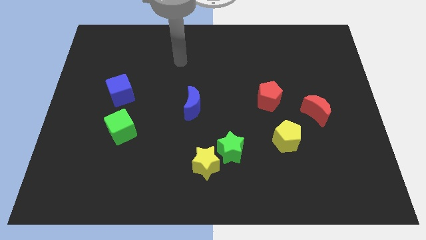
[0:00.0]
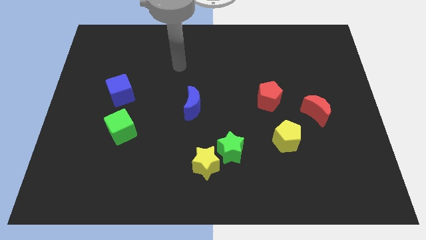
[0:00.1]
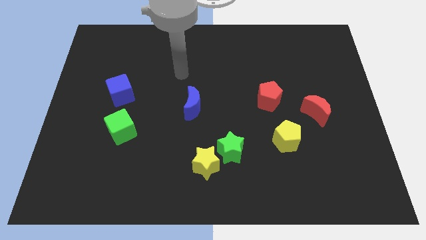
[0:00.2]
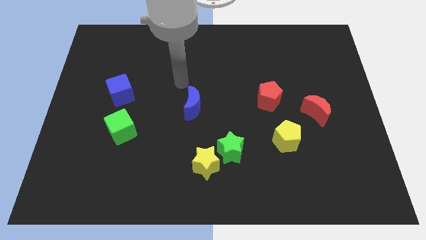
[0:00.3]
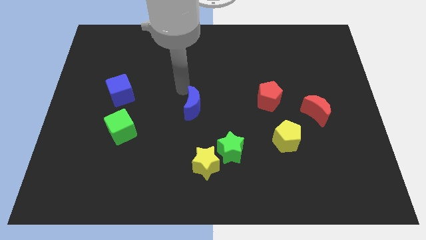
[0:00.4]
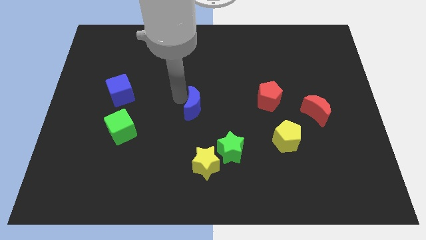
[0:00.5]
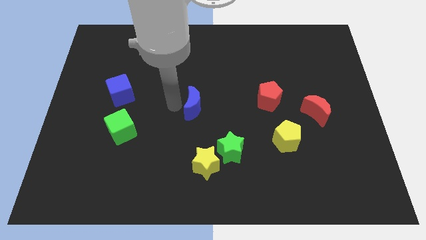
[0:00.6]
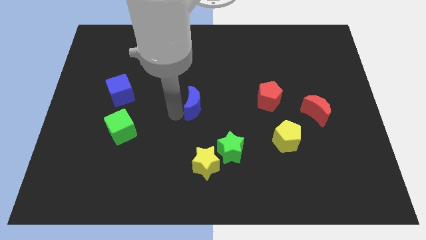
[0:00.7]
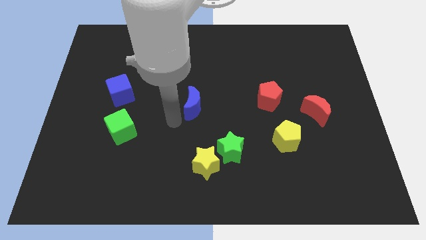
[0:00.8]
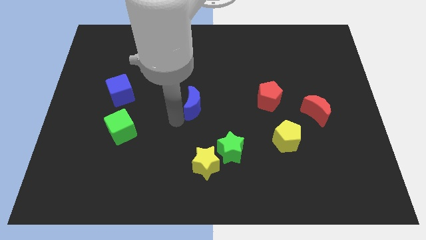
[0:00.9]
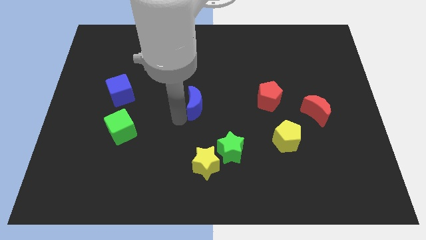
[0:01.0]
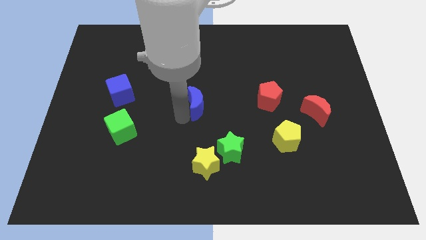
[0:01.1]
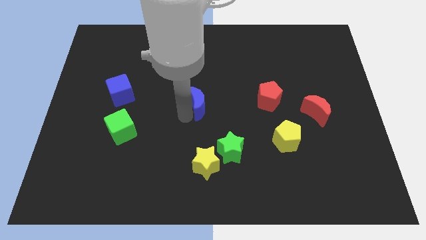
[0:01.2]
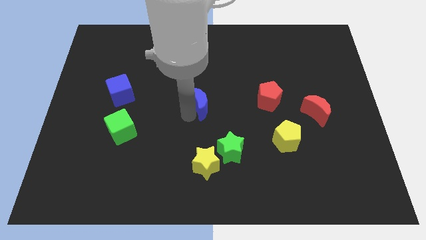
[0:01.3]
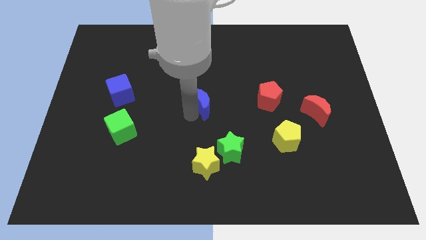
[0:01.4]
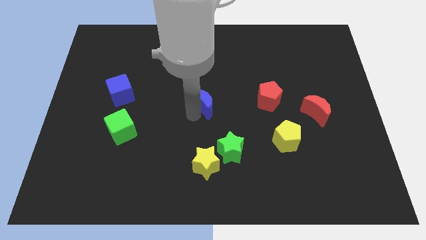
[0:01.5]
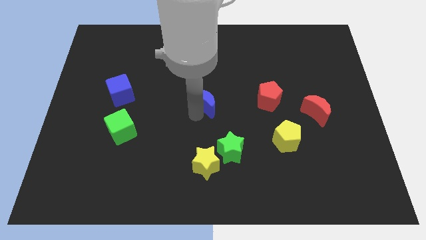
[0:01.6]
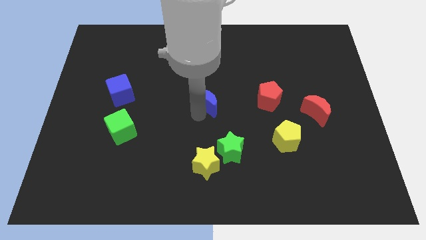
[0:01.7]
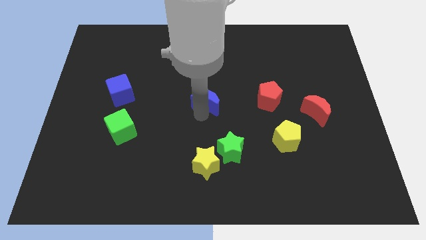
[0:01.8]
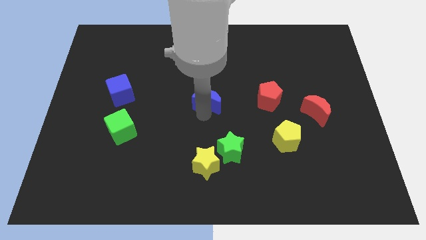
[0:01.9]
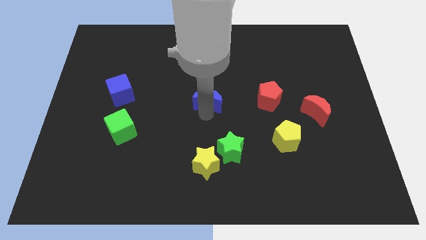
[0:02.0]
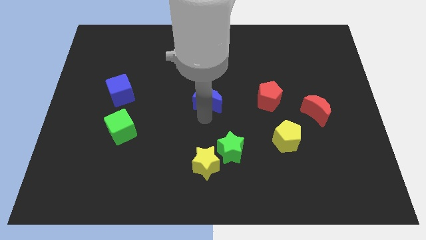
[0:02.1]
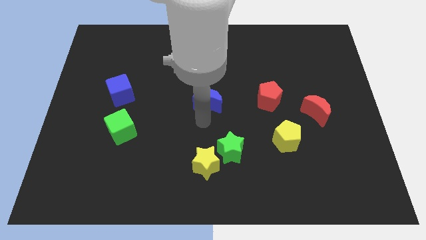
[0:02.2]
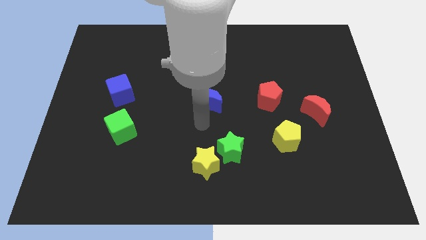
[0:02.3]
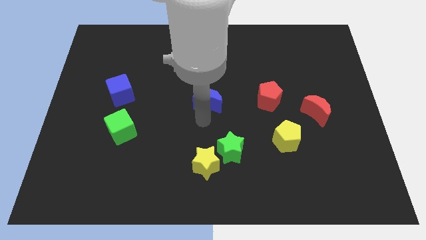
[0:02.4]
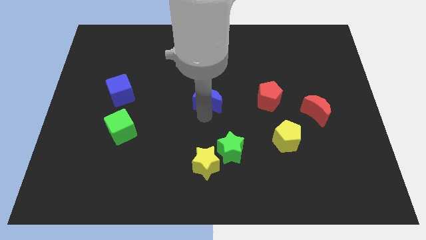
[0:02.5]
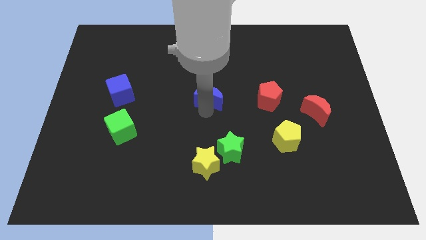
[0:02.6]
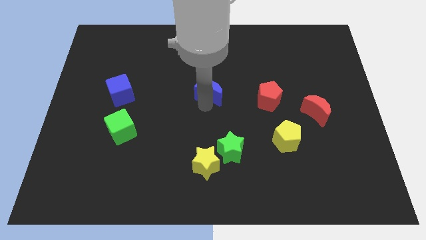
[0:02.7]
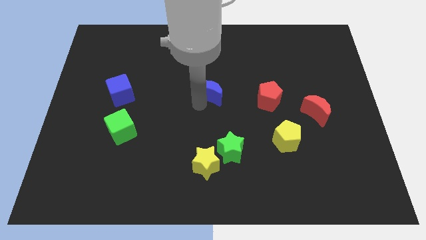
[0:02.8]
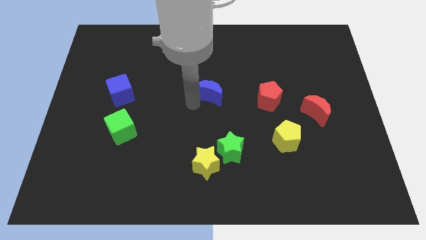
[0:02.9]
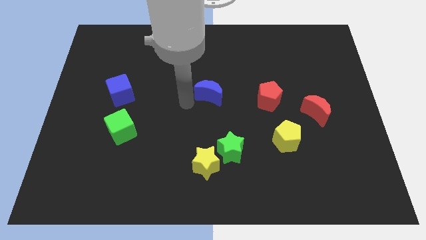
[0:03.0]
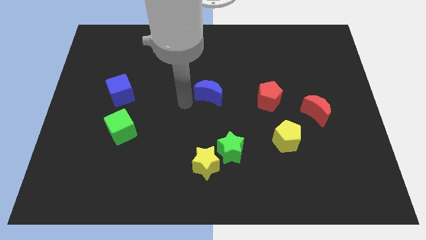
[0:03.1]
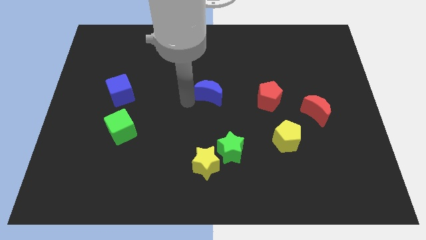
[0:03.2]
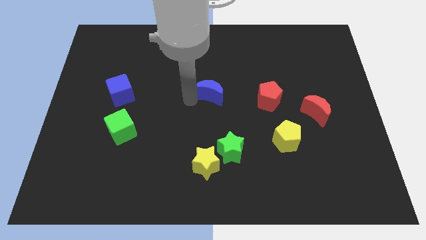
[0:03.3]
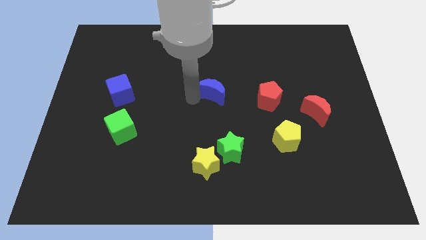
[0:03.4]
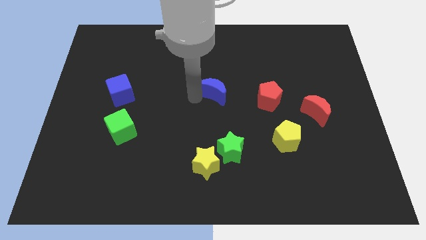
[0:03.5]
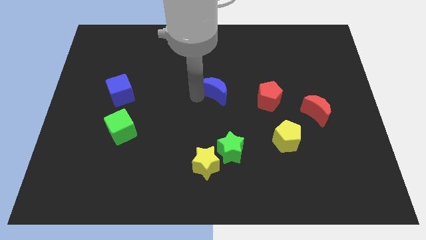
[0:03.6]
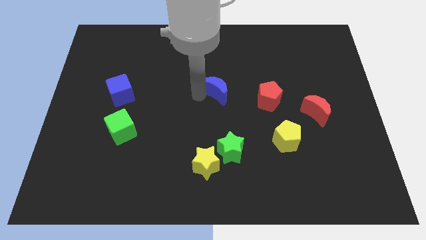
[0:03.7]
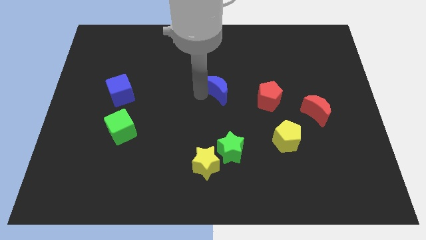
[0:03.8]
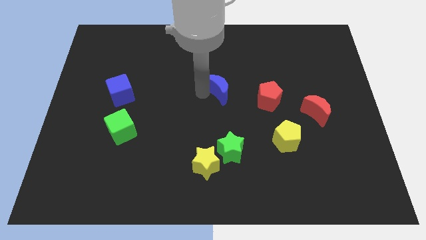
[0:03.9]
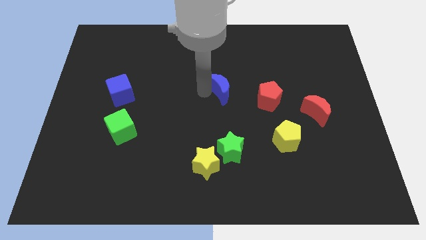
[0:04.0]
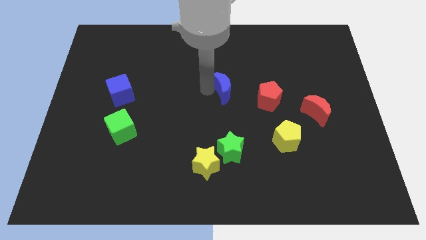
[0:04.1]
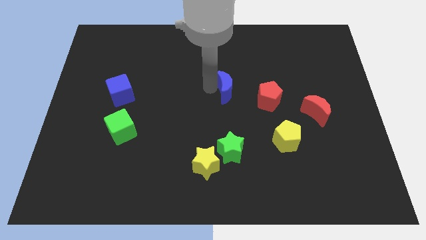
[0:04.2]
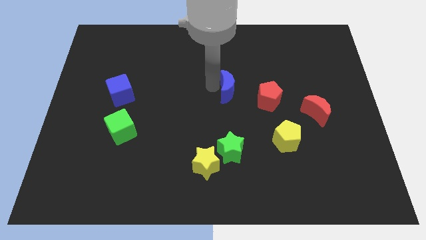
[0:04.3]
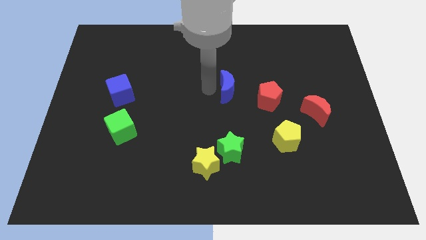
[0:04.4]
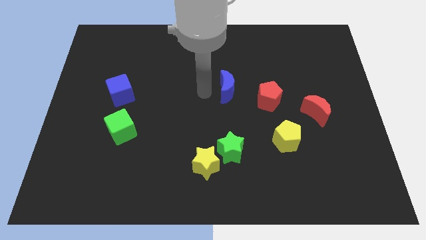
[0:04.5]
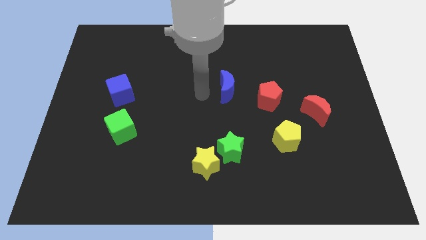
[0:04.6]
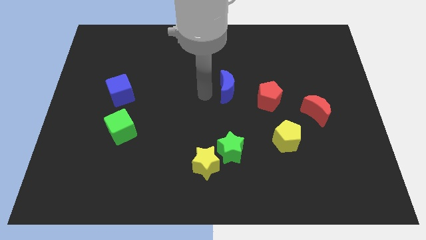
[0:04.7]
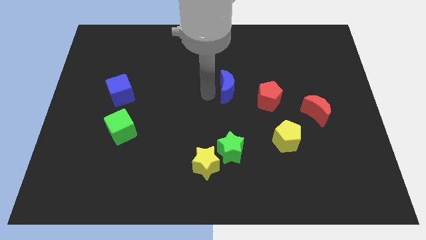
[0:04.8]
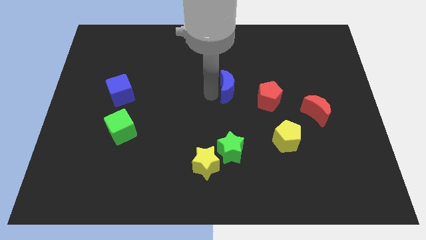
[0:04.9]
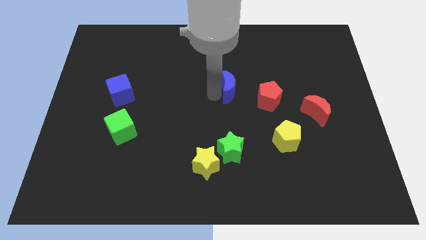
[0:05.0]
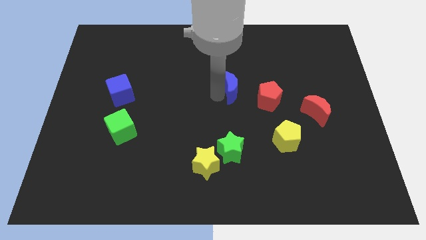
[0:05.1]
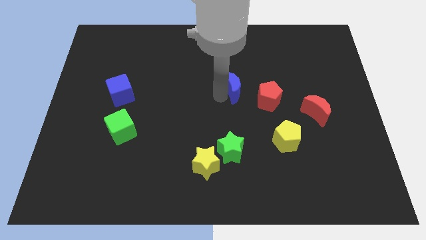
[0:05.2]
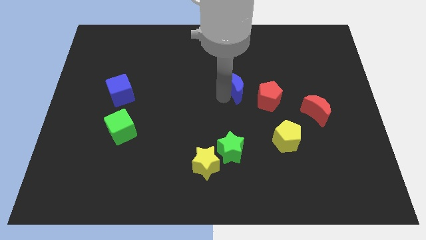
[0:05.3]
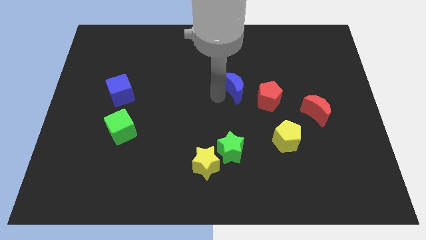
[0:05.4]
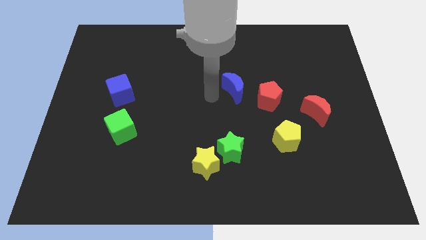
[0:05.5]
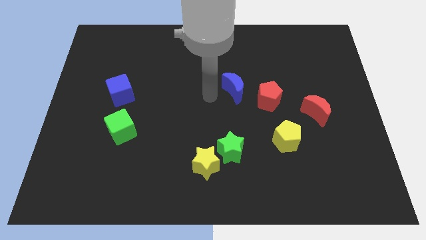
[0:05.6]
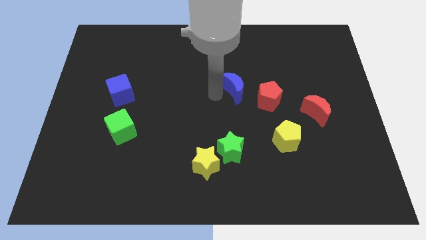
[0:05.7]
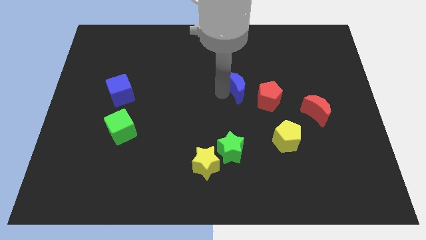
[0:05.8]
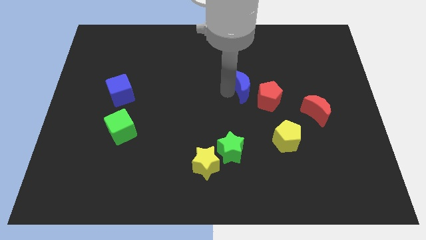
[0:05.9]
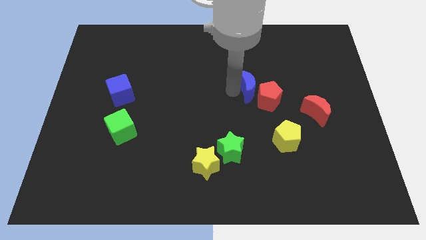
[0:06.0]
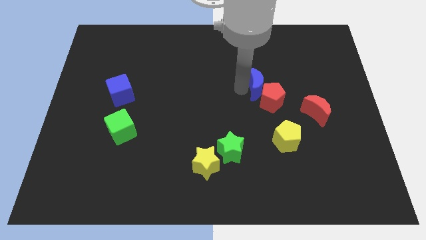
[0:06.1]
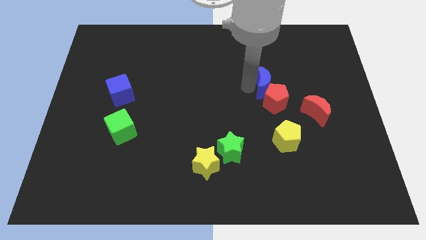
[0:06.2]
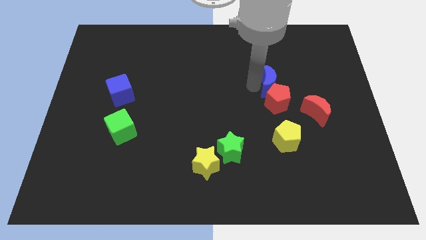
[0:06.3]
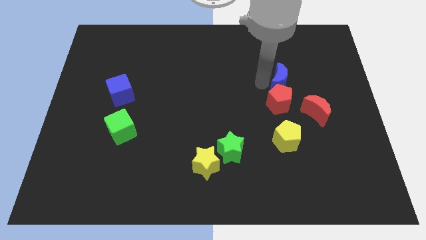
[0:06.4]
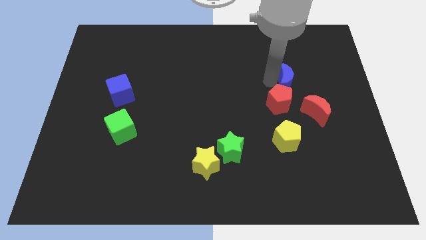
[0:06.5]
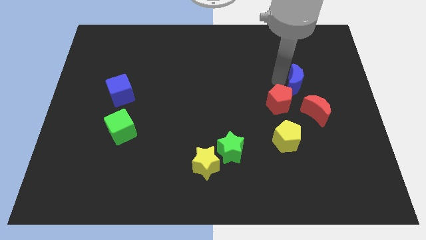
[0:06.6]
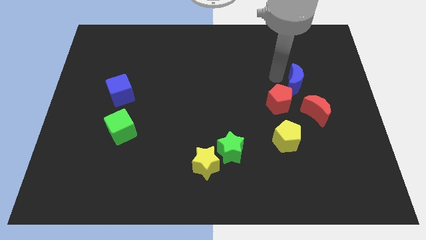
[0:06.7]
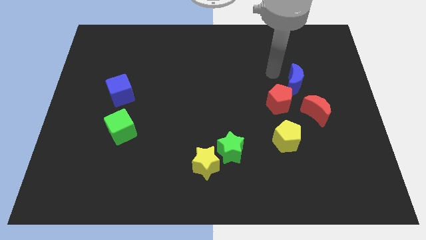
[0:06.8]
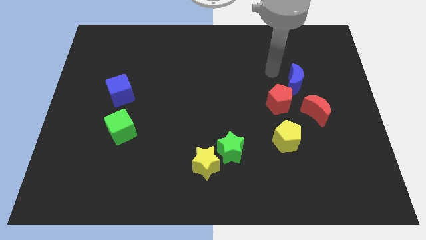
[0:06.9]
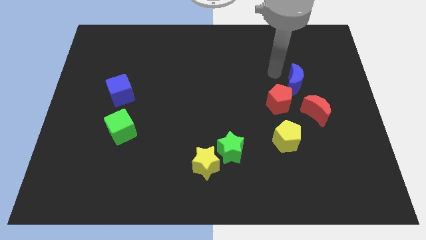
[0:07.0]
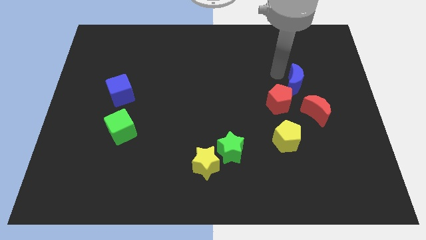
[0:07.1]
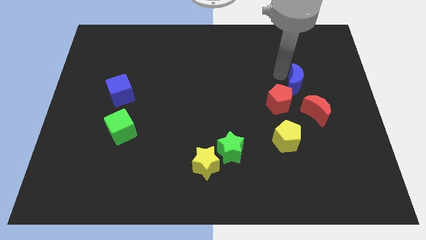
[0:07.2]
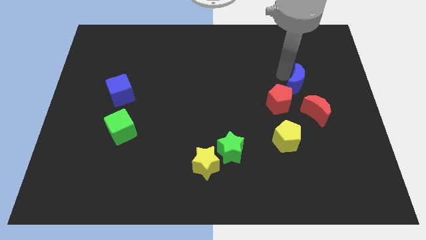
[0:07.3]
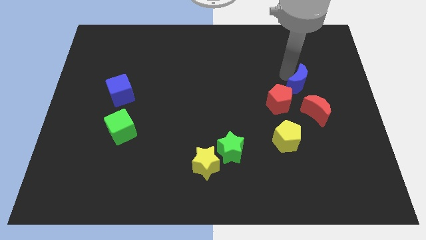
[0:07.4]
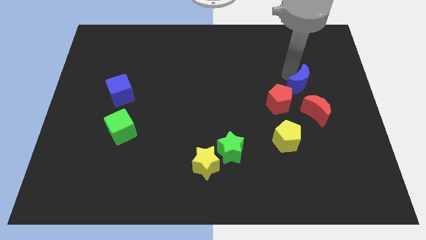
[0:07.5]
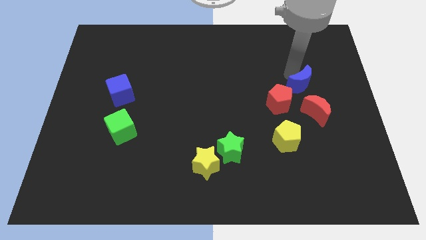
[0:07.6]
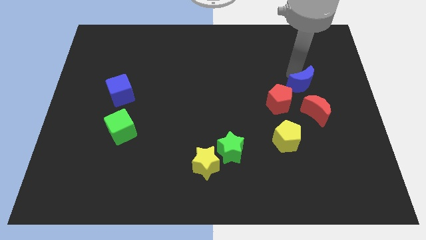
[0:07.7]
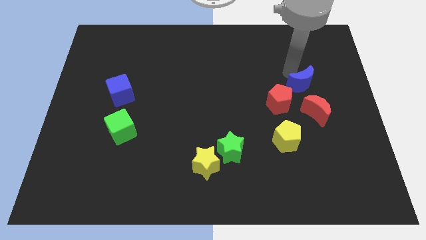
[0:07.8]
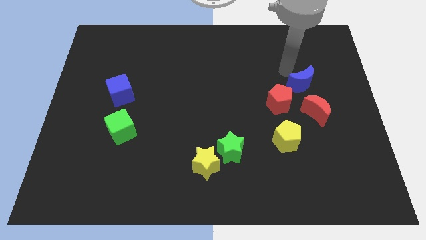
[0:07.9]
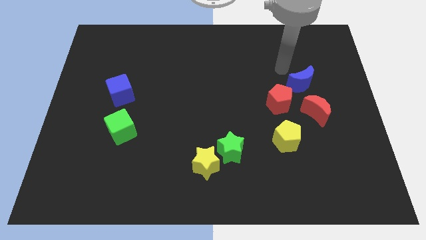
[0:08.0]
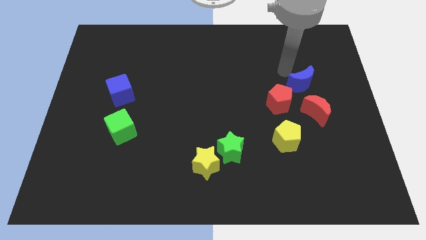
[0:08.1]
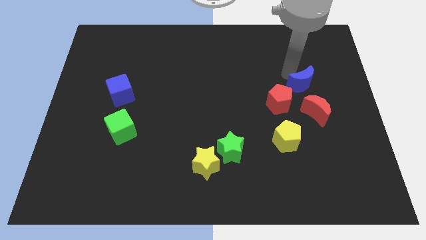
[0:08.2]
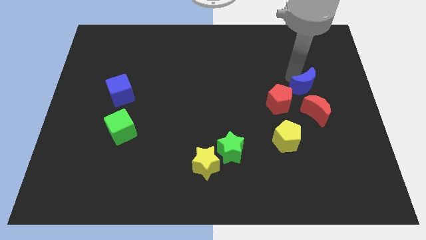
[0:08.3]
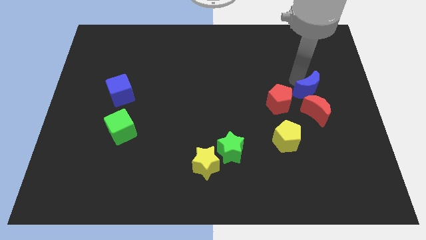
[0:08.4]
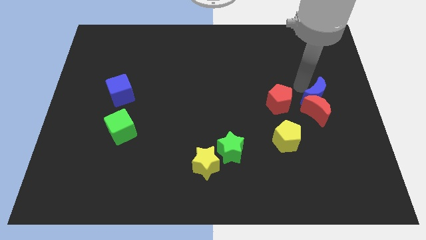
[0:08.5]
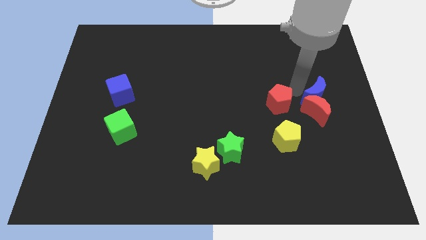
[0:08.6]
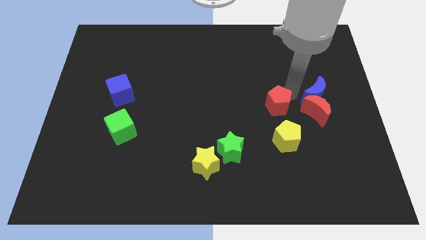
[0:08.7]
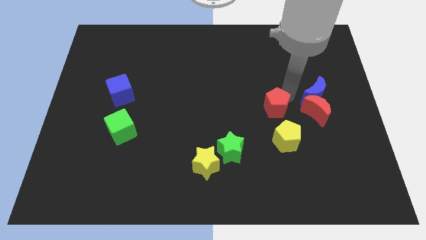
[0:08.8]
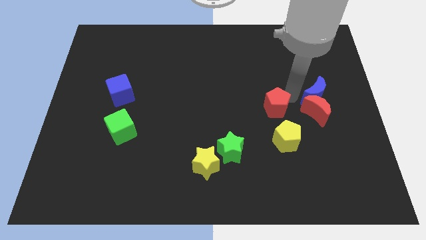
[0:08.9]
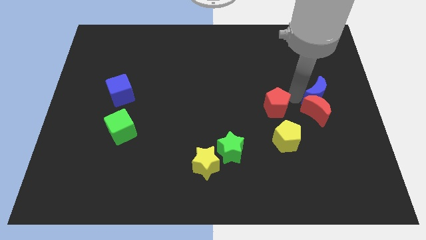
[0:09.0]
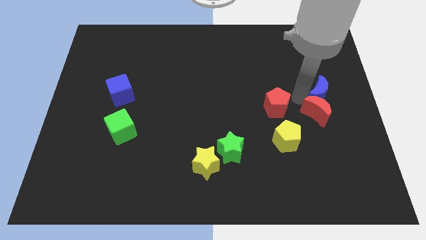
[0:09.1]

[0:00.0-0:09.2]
move the blue moon to the right side
